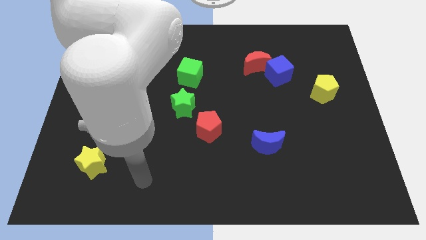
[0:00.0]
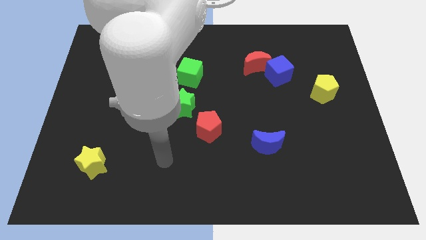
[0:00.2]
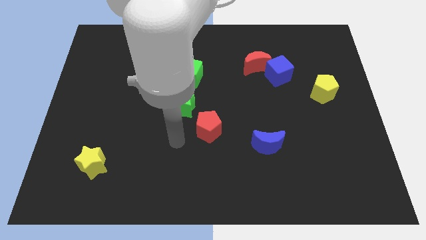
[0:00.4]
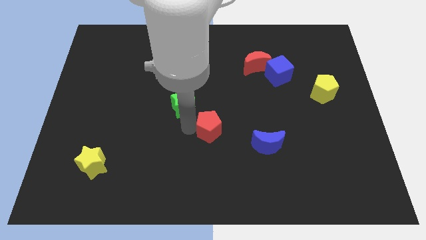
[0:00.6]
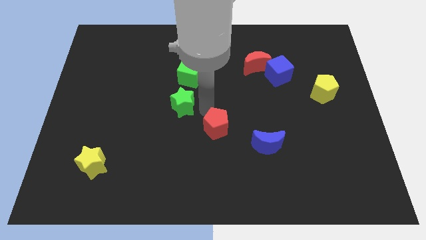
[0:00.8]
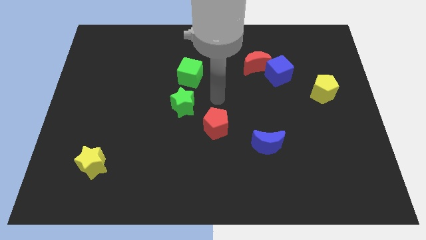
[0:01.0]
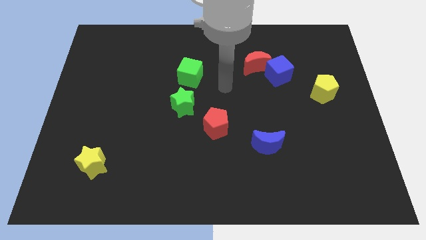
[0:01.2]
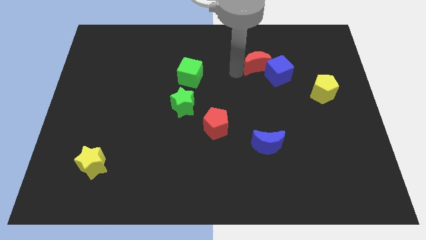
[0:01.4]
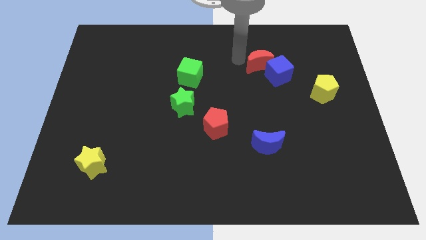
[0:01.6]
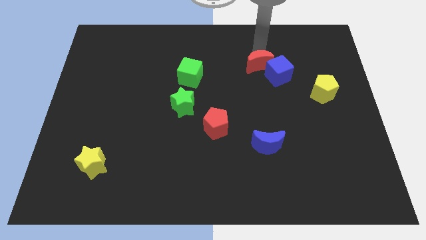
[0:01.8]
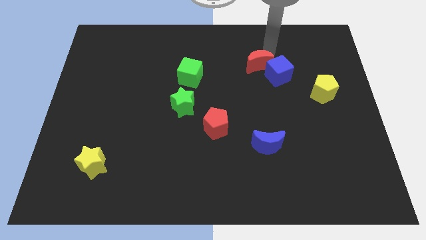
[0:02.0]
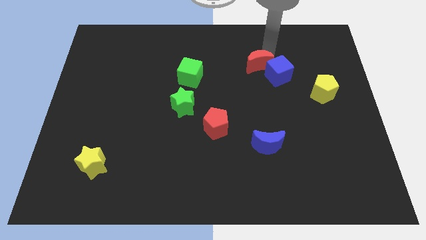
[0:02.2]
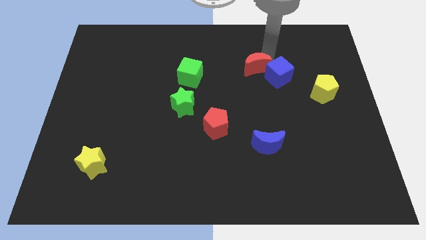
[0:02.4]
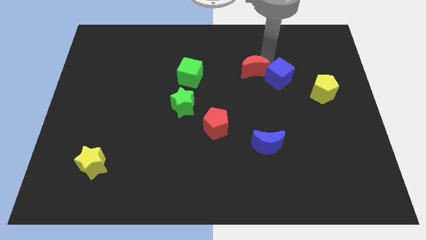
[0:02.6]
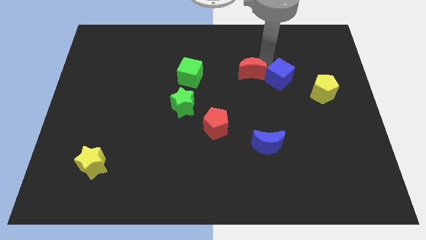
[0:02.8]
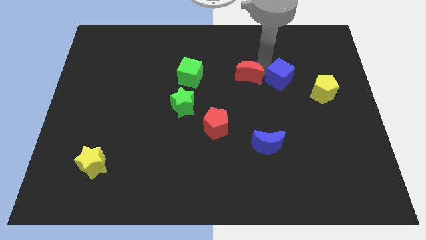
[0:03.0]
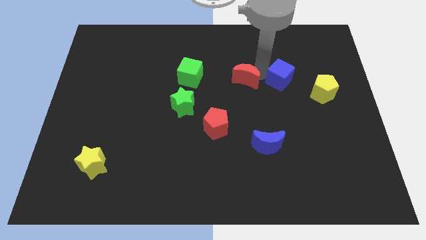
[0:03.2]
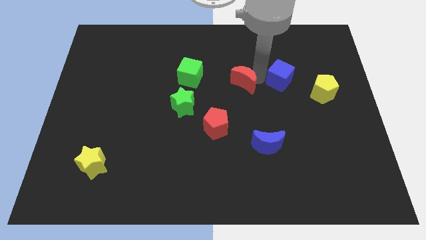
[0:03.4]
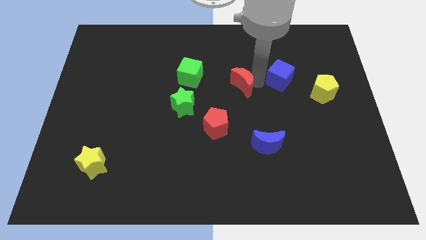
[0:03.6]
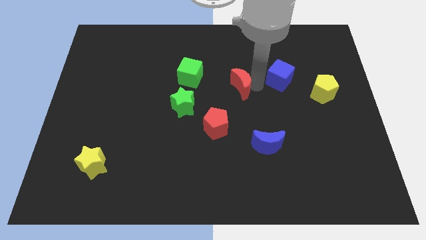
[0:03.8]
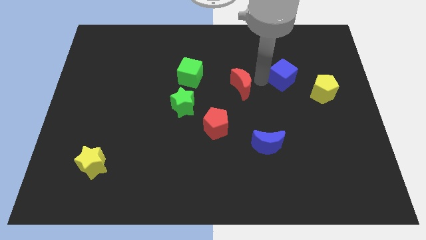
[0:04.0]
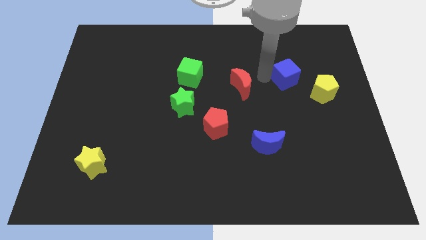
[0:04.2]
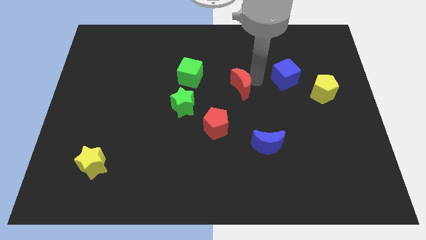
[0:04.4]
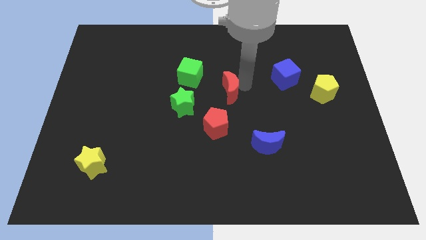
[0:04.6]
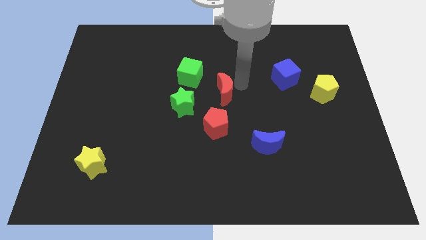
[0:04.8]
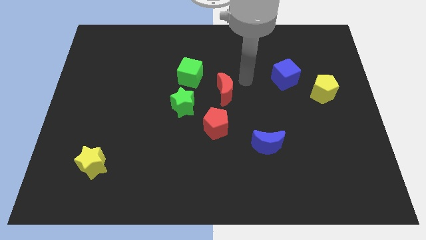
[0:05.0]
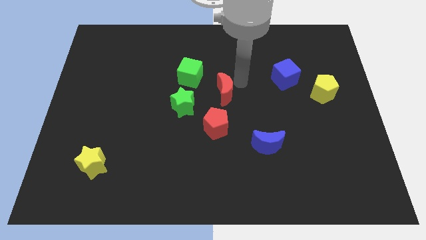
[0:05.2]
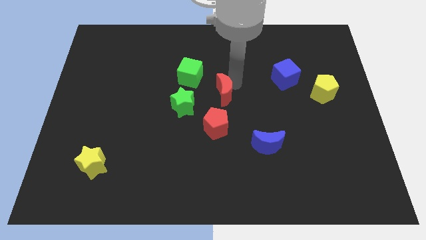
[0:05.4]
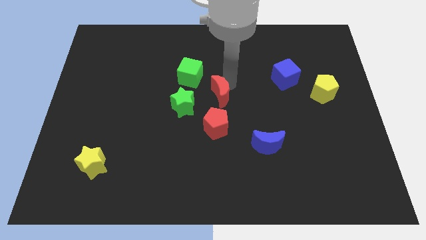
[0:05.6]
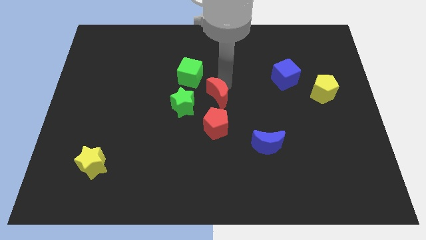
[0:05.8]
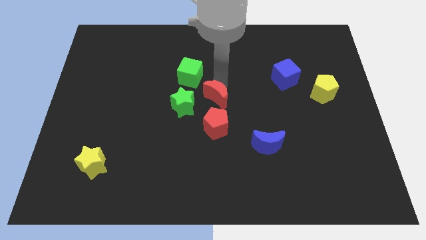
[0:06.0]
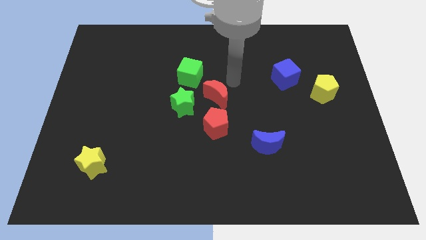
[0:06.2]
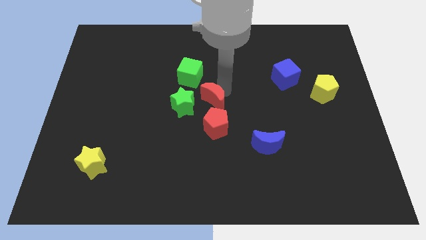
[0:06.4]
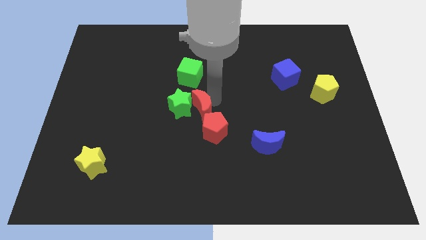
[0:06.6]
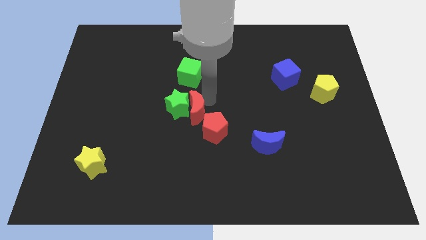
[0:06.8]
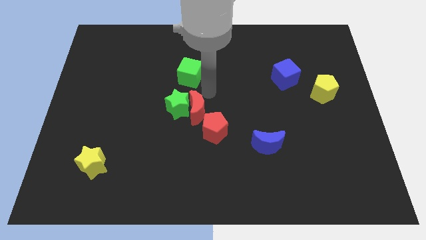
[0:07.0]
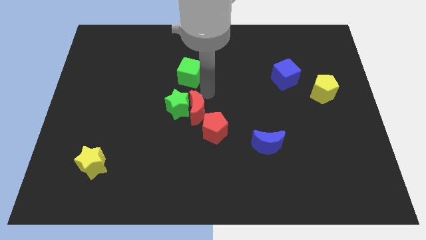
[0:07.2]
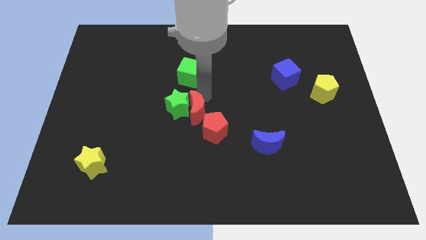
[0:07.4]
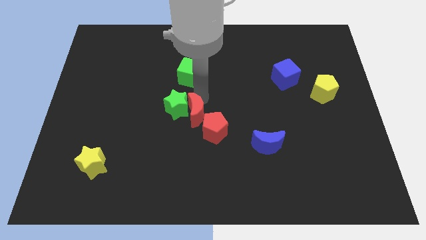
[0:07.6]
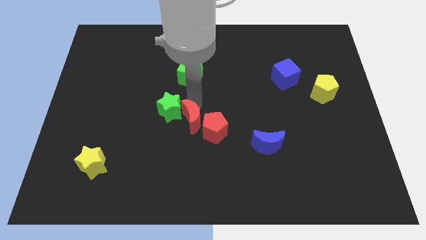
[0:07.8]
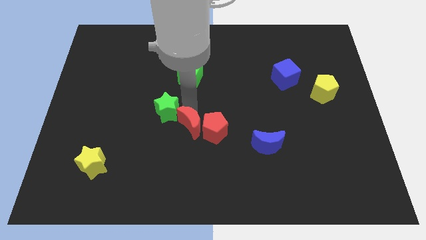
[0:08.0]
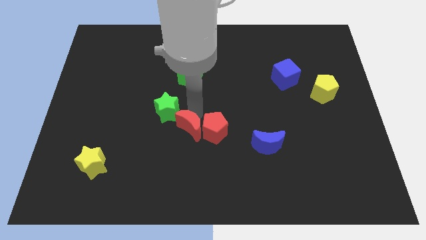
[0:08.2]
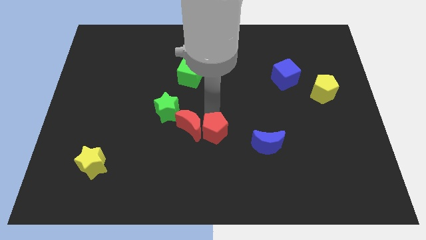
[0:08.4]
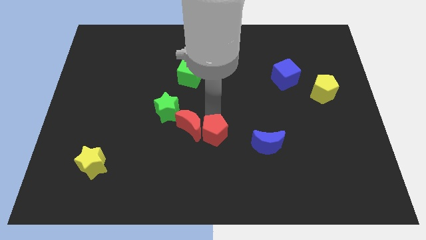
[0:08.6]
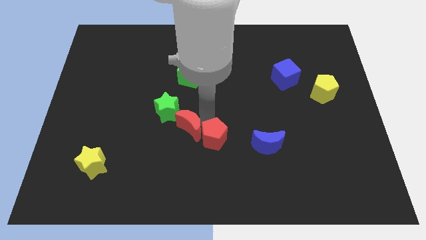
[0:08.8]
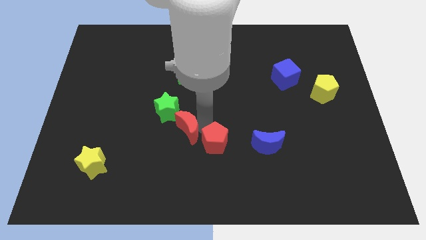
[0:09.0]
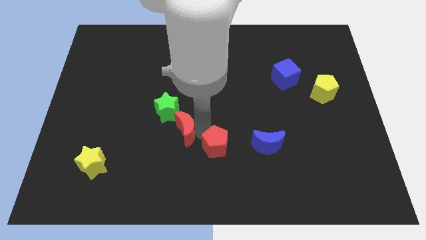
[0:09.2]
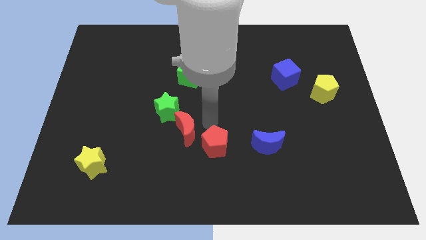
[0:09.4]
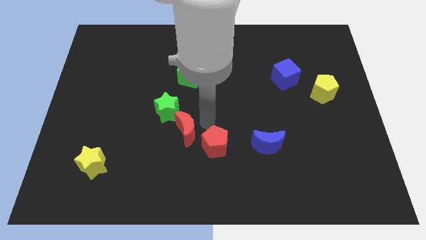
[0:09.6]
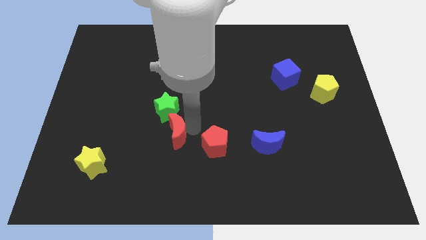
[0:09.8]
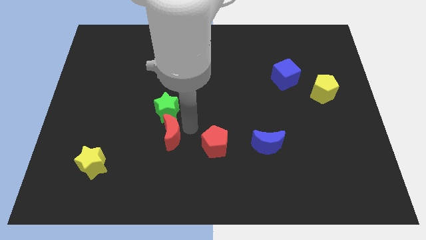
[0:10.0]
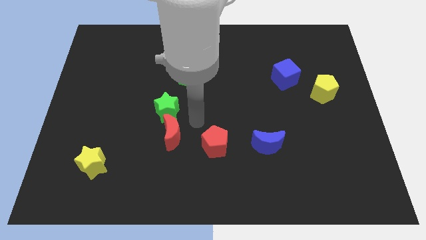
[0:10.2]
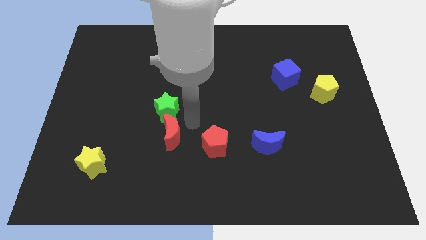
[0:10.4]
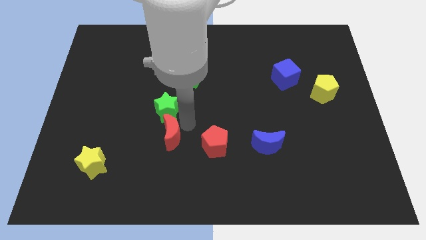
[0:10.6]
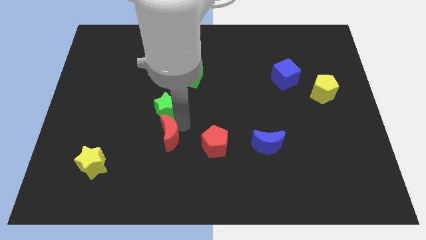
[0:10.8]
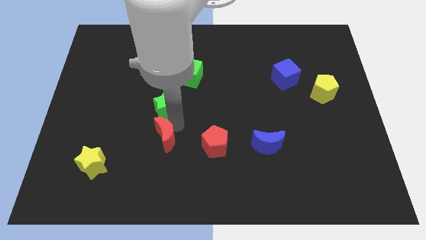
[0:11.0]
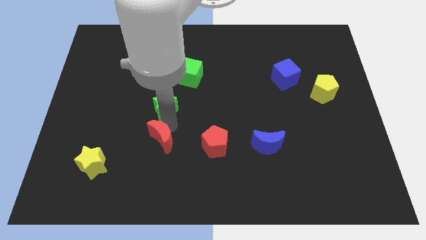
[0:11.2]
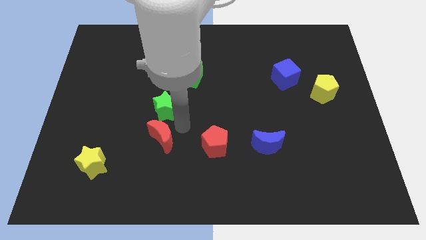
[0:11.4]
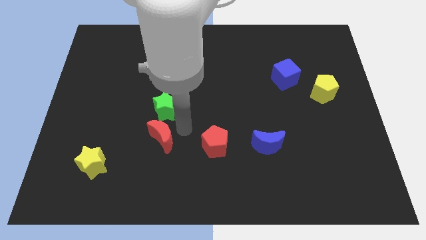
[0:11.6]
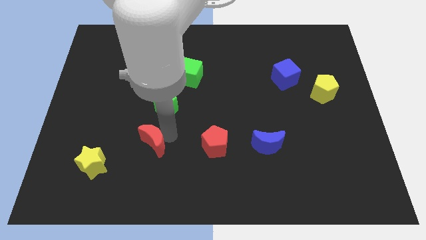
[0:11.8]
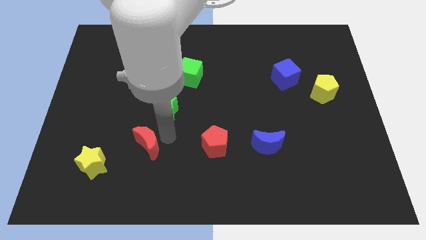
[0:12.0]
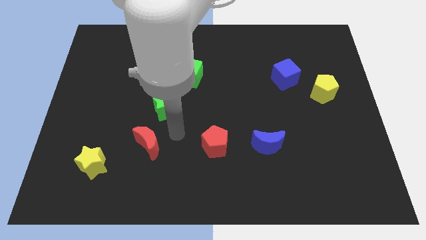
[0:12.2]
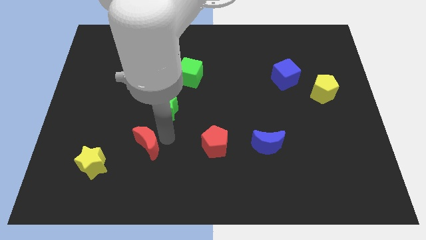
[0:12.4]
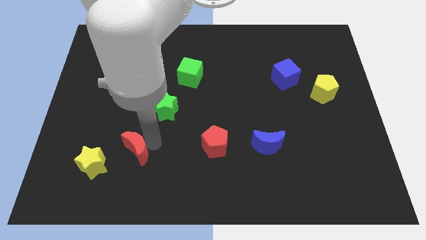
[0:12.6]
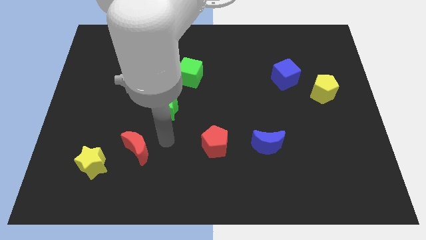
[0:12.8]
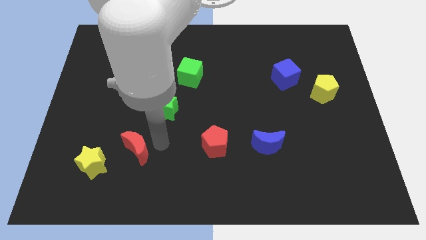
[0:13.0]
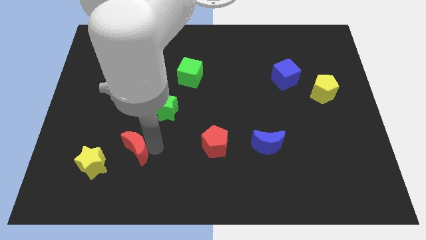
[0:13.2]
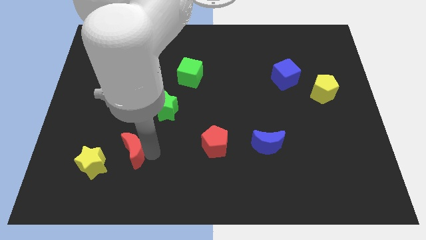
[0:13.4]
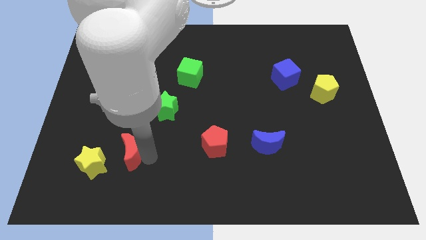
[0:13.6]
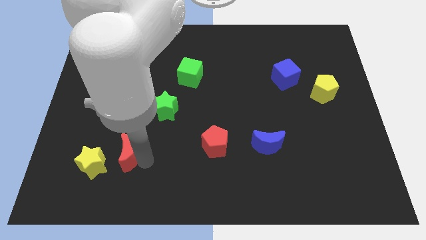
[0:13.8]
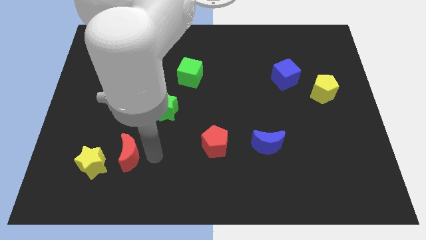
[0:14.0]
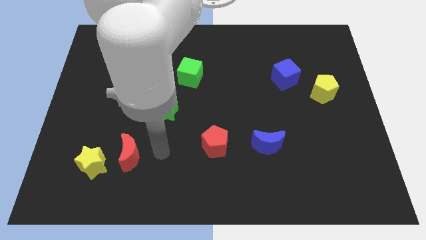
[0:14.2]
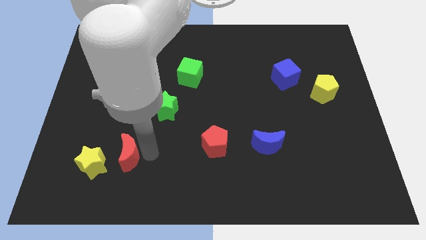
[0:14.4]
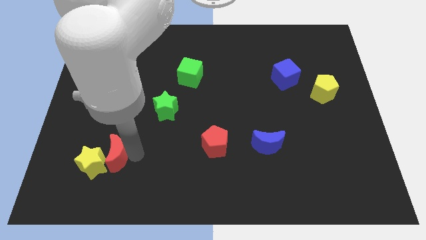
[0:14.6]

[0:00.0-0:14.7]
put the red moon next to the yellow star
